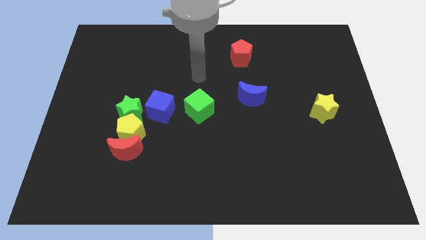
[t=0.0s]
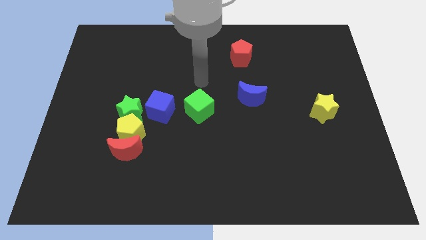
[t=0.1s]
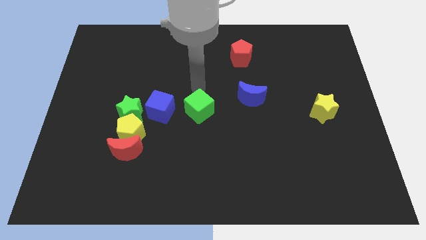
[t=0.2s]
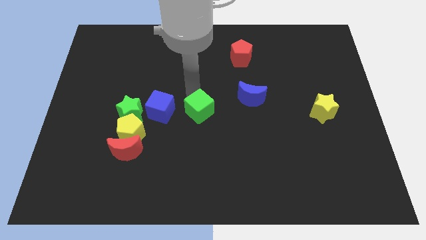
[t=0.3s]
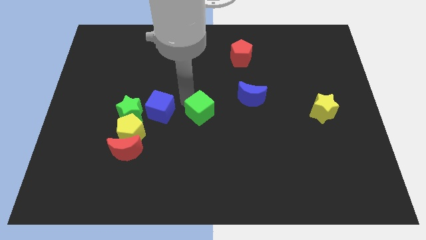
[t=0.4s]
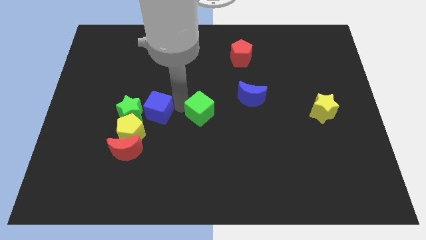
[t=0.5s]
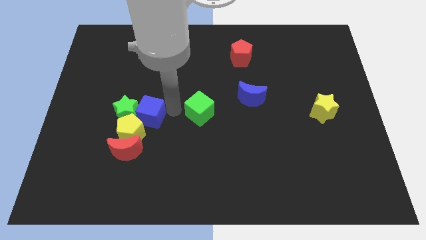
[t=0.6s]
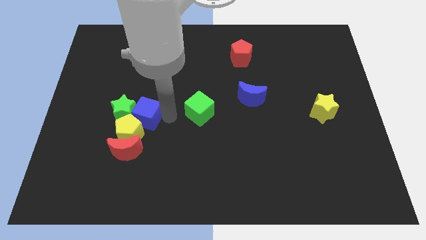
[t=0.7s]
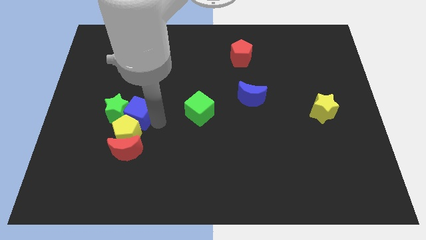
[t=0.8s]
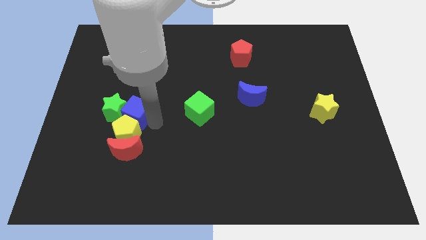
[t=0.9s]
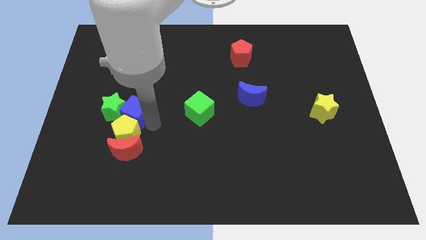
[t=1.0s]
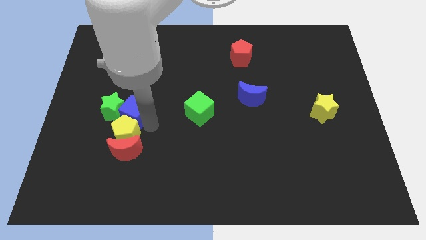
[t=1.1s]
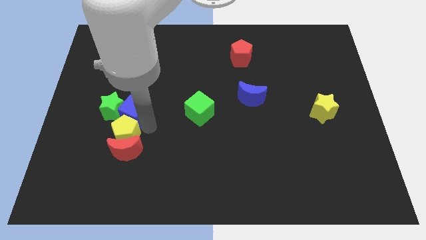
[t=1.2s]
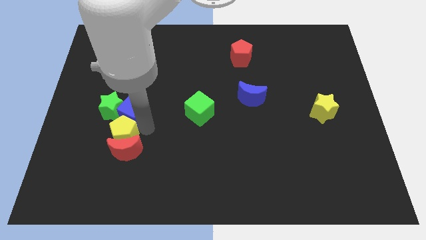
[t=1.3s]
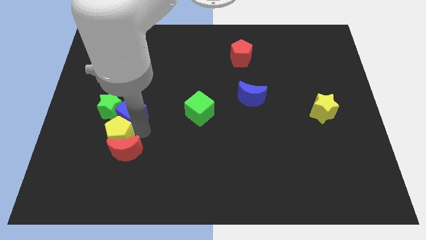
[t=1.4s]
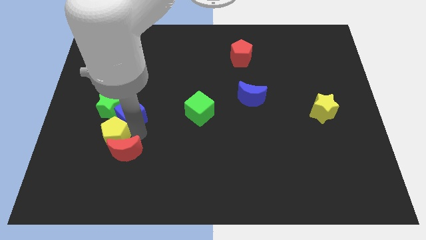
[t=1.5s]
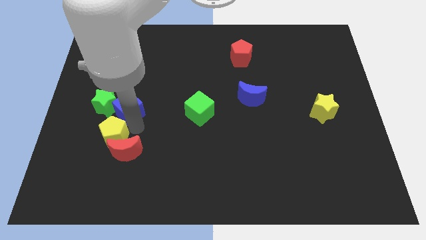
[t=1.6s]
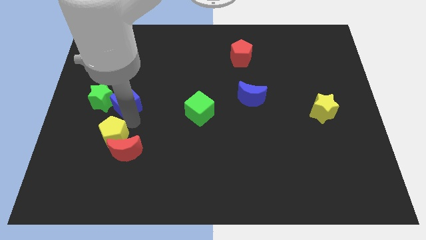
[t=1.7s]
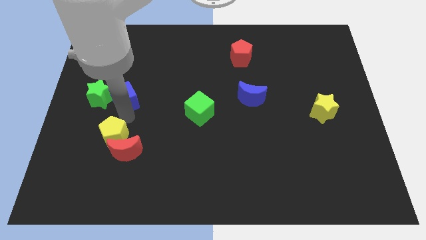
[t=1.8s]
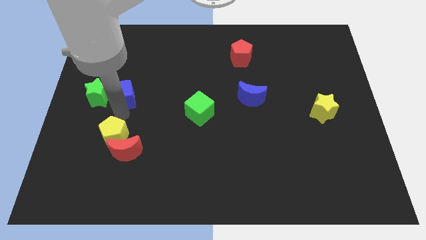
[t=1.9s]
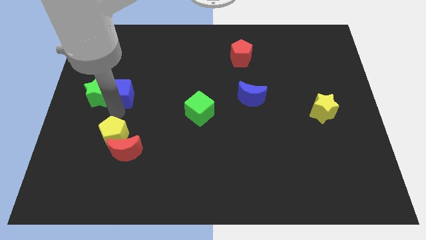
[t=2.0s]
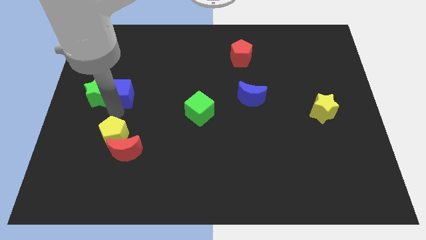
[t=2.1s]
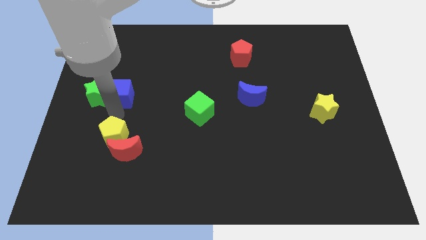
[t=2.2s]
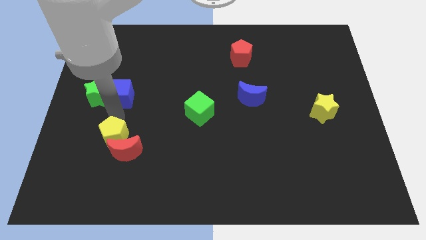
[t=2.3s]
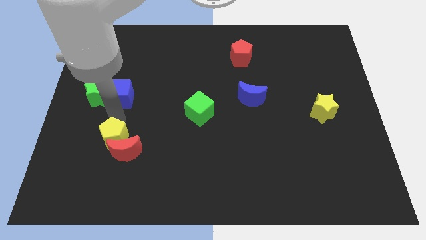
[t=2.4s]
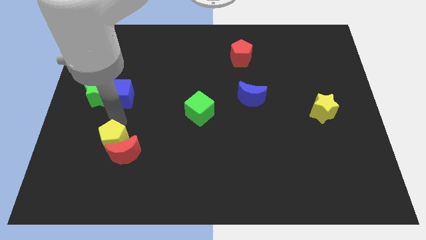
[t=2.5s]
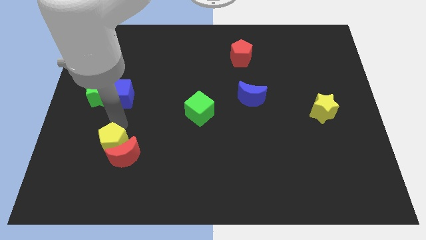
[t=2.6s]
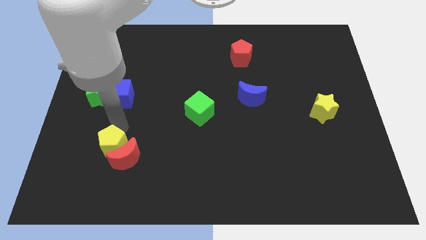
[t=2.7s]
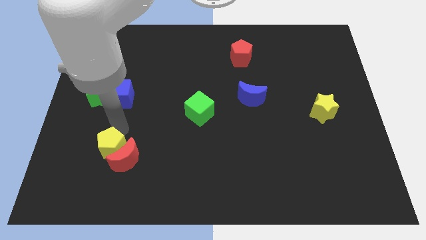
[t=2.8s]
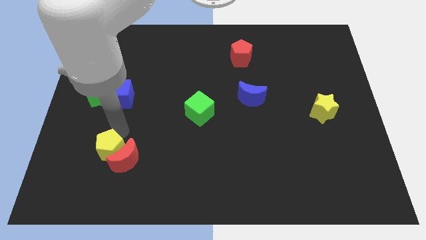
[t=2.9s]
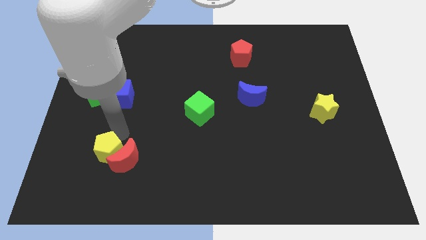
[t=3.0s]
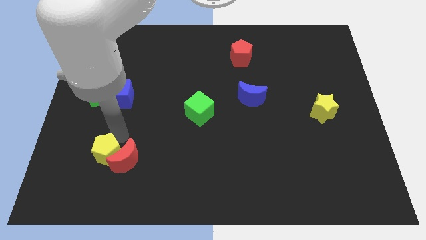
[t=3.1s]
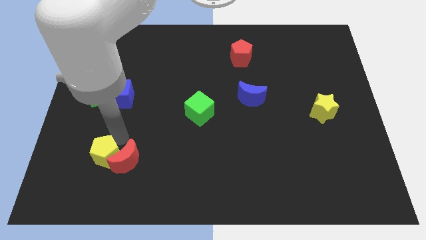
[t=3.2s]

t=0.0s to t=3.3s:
move the yellow pentagon away from the clump

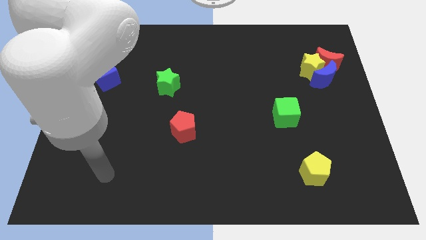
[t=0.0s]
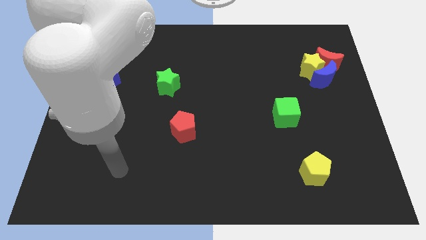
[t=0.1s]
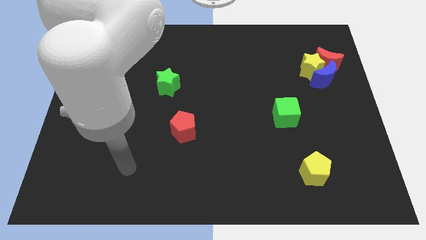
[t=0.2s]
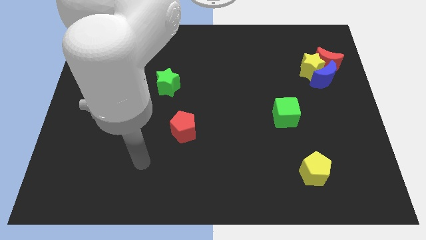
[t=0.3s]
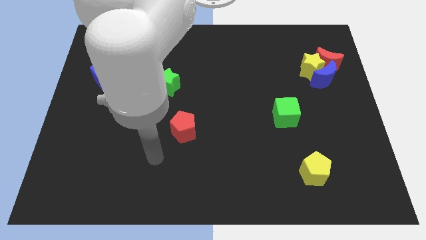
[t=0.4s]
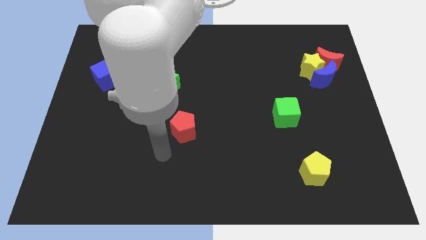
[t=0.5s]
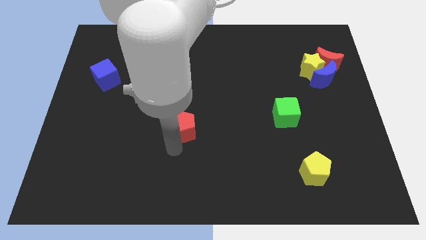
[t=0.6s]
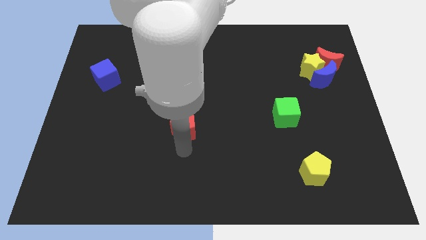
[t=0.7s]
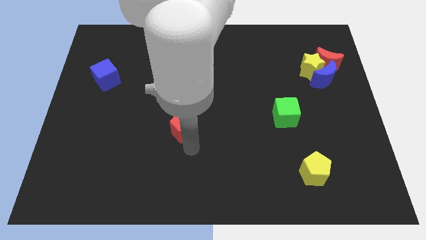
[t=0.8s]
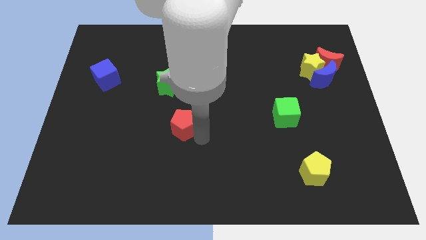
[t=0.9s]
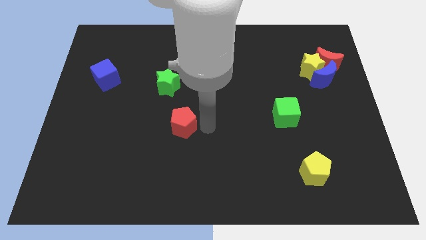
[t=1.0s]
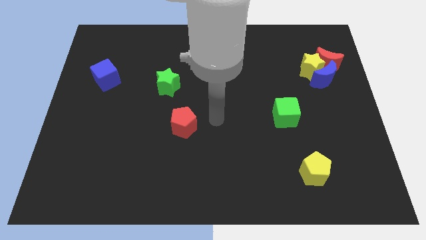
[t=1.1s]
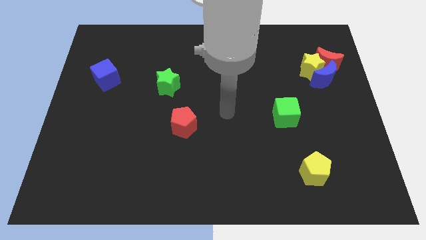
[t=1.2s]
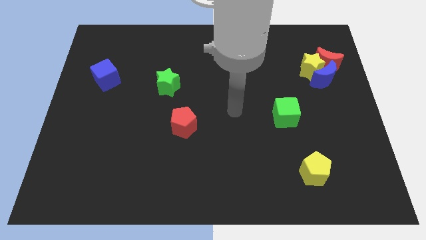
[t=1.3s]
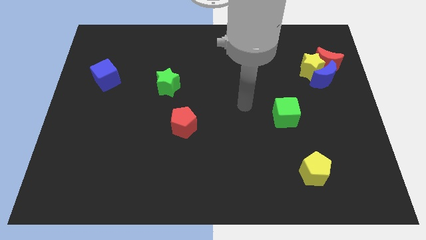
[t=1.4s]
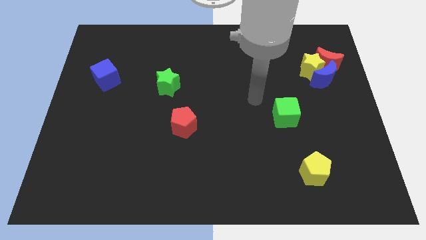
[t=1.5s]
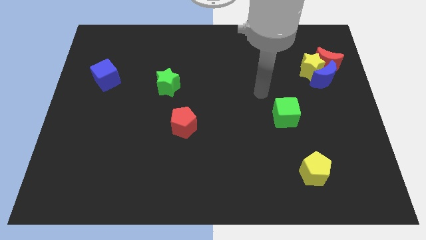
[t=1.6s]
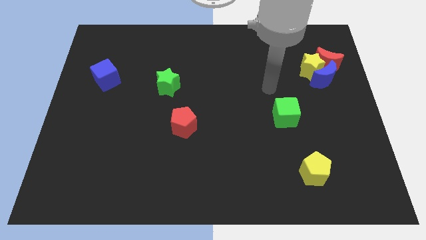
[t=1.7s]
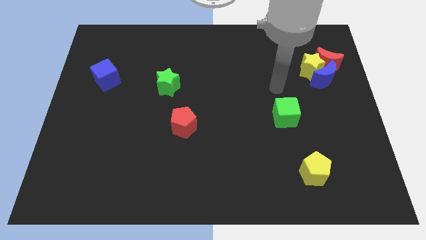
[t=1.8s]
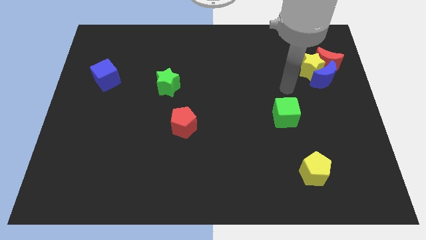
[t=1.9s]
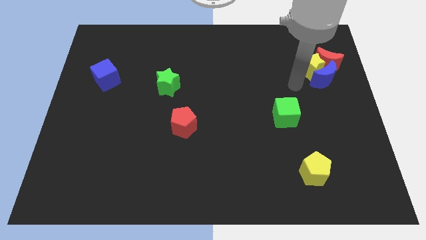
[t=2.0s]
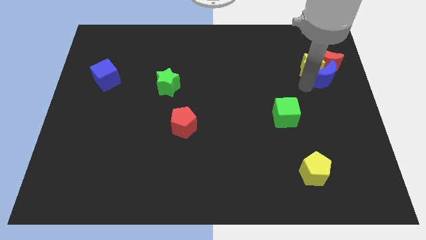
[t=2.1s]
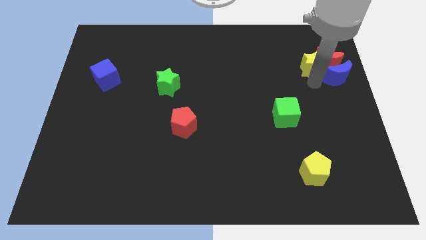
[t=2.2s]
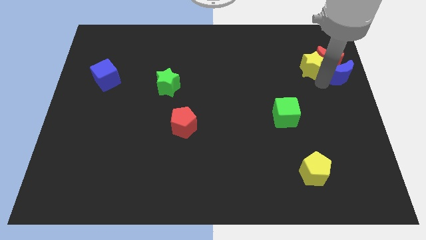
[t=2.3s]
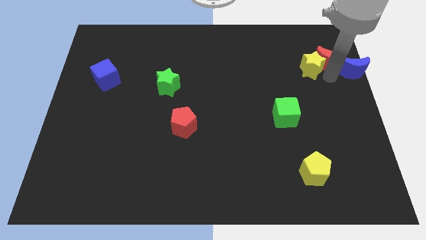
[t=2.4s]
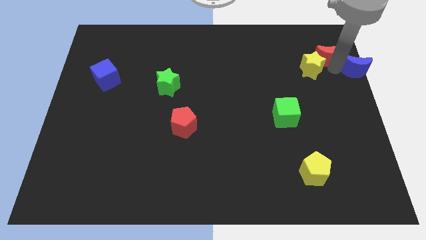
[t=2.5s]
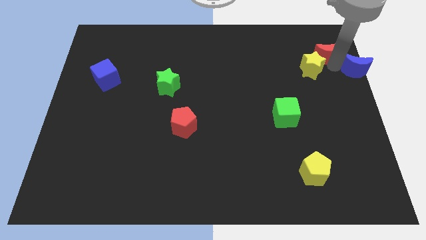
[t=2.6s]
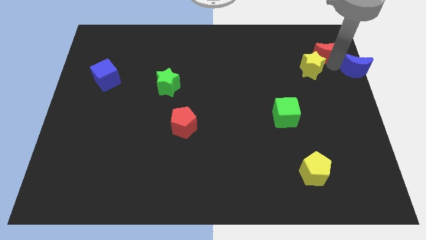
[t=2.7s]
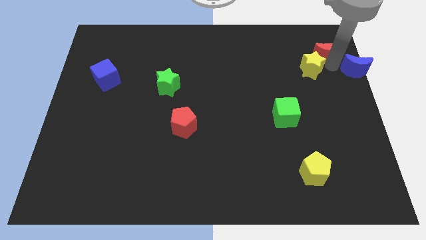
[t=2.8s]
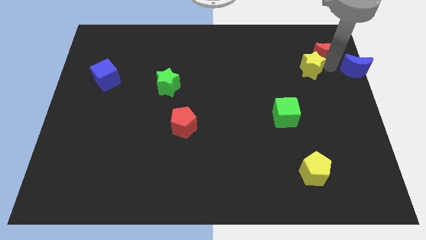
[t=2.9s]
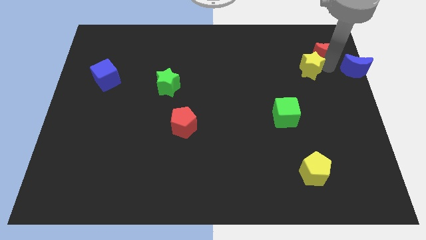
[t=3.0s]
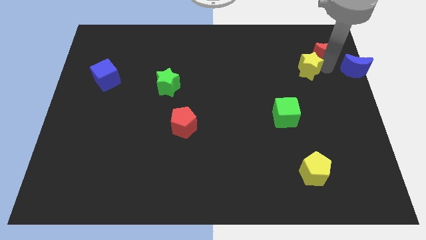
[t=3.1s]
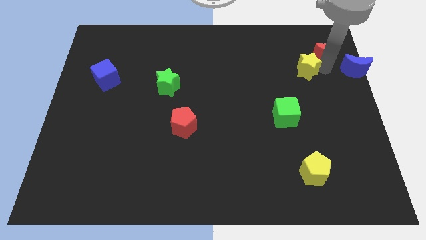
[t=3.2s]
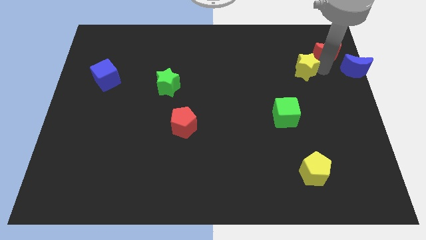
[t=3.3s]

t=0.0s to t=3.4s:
move the yellow star away from the blue moon and red moon

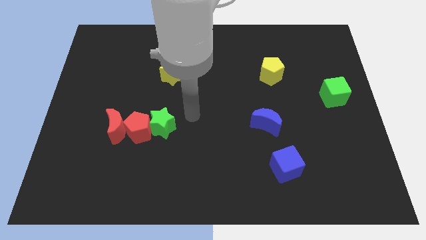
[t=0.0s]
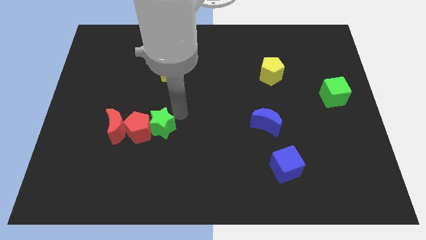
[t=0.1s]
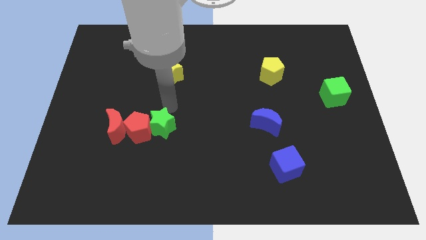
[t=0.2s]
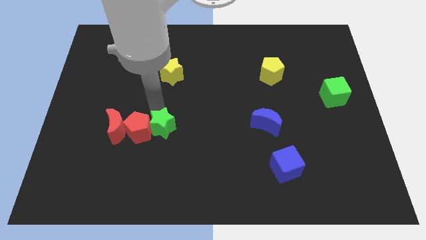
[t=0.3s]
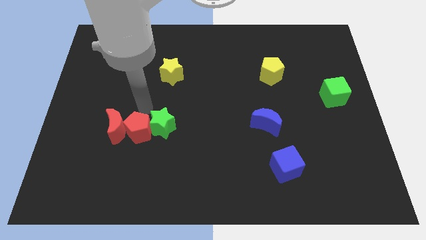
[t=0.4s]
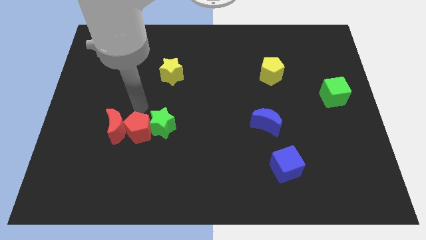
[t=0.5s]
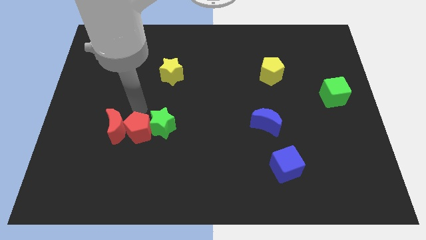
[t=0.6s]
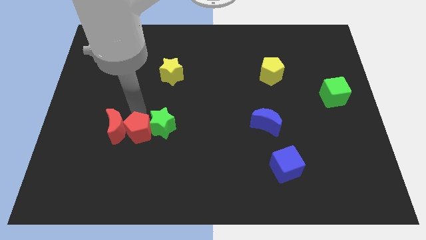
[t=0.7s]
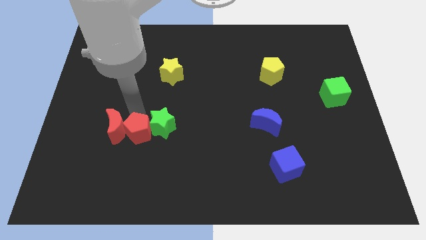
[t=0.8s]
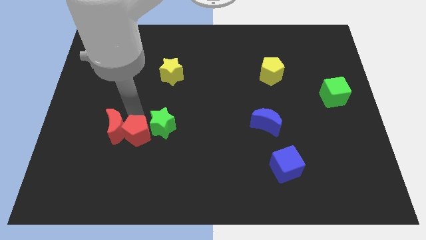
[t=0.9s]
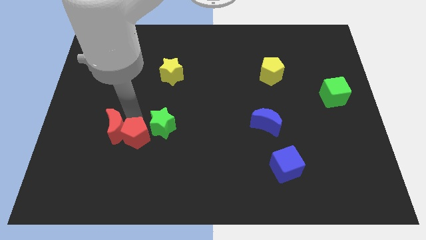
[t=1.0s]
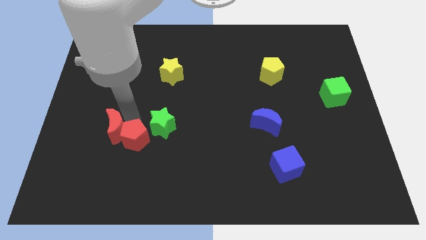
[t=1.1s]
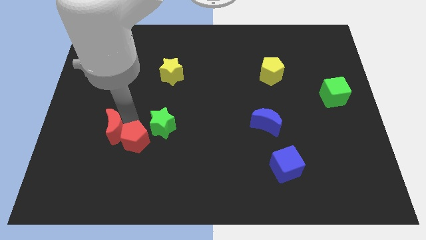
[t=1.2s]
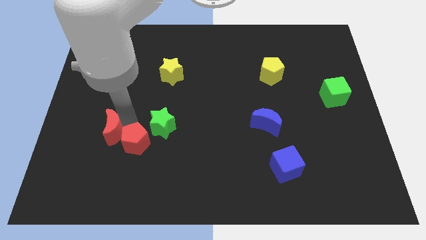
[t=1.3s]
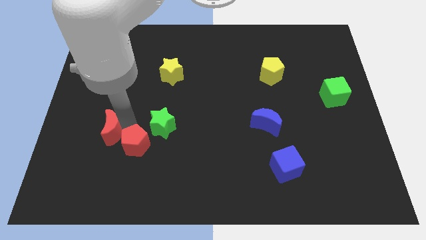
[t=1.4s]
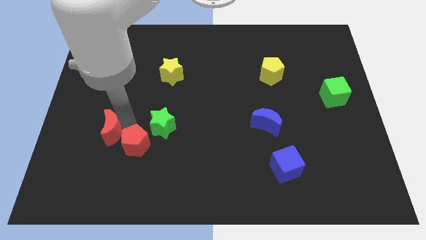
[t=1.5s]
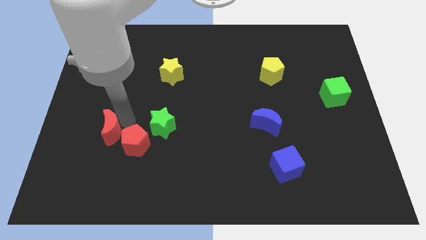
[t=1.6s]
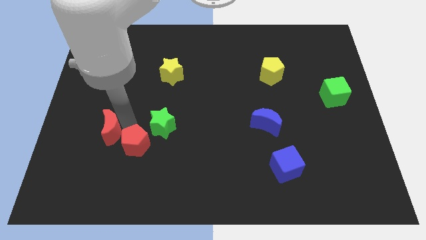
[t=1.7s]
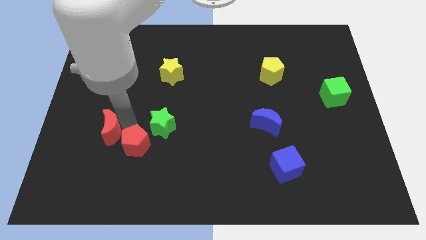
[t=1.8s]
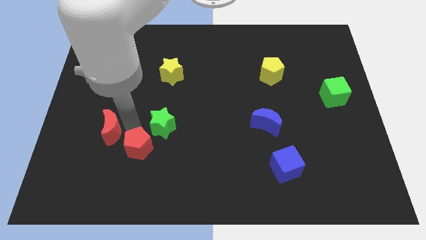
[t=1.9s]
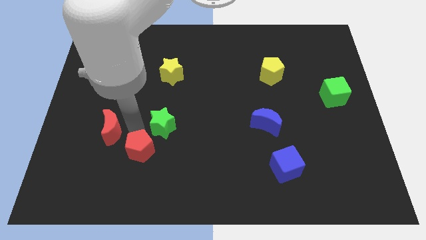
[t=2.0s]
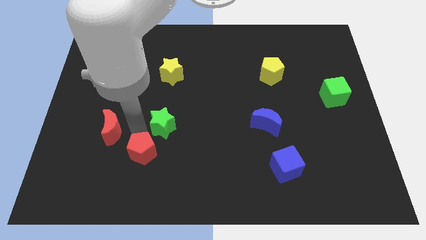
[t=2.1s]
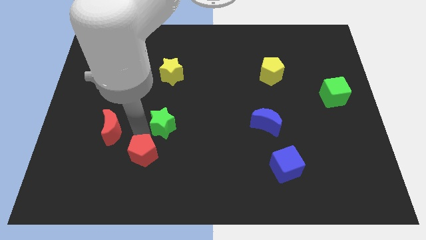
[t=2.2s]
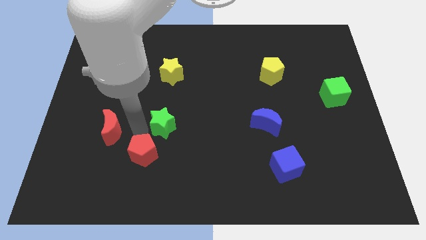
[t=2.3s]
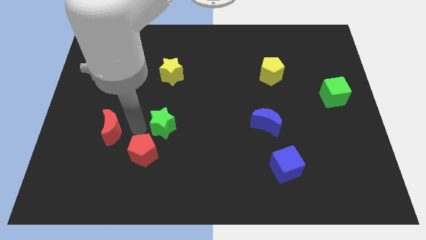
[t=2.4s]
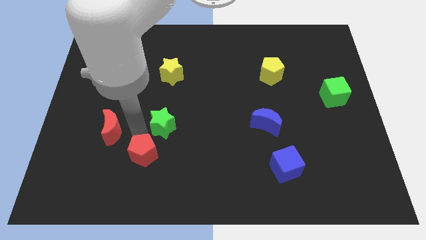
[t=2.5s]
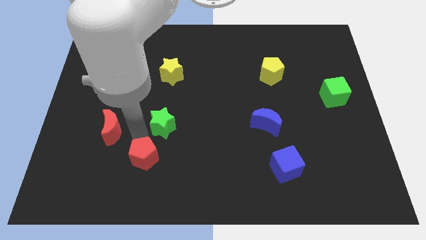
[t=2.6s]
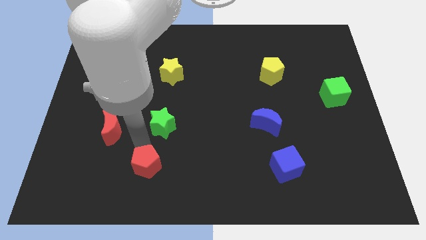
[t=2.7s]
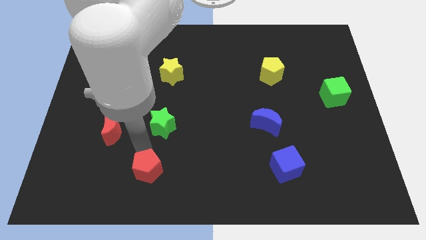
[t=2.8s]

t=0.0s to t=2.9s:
separate the red pentagon from the green star and red moon
